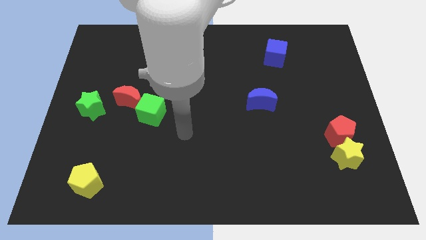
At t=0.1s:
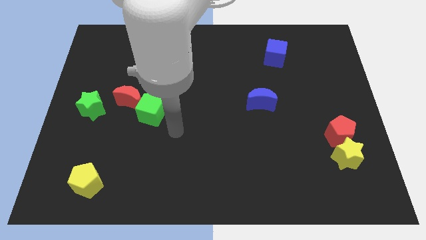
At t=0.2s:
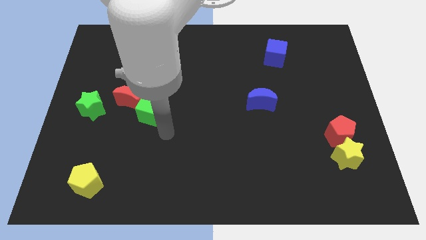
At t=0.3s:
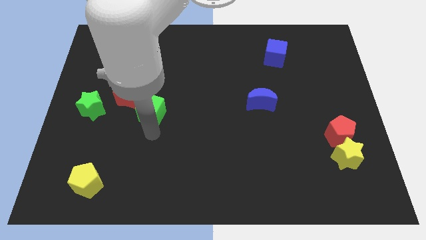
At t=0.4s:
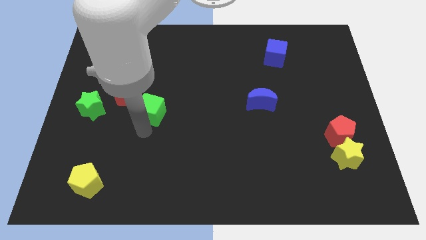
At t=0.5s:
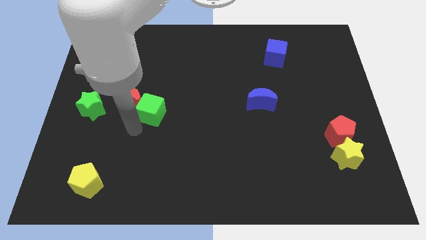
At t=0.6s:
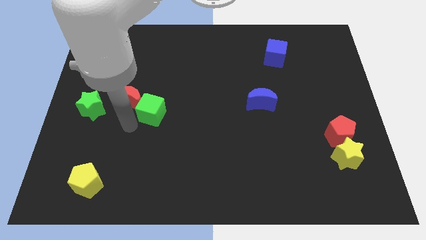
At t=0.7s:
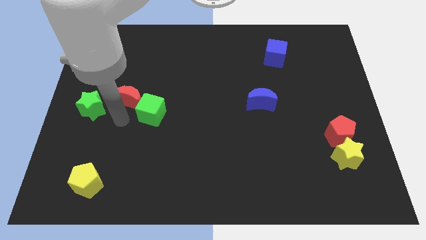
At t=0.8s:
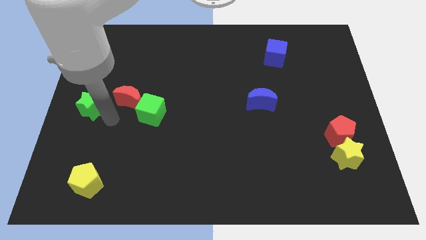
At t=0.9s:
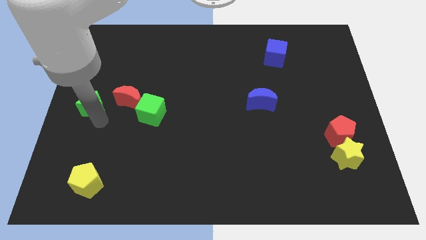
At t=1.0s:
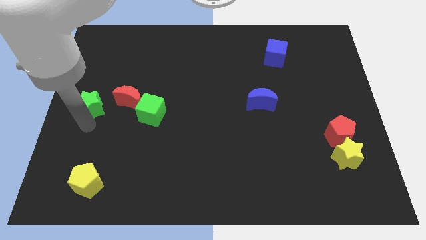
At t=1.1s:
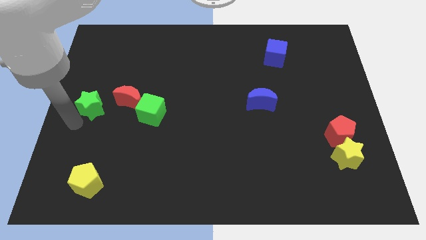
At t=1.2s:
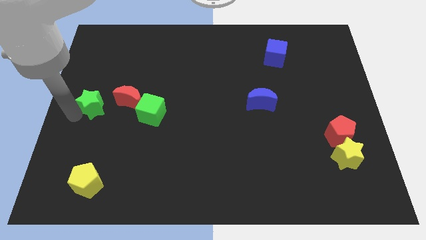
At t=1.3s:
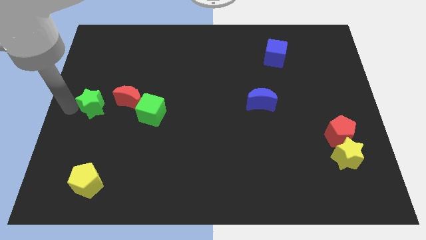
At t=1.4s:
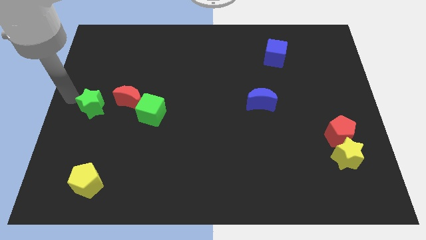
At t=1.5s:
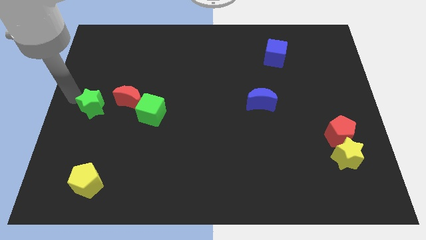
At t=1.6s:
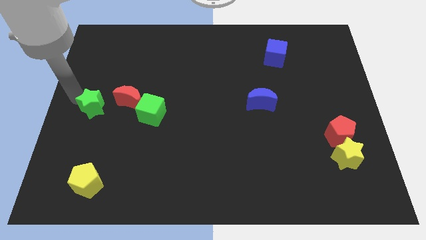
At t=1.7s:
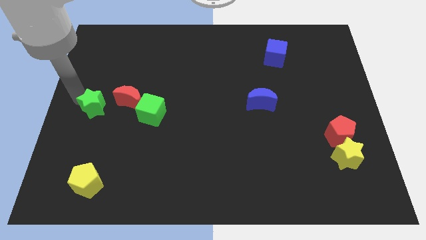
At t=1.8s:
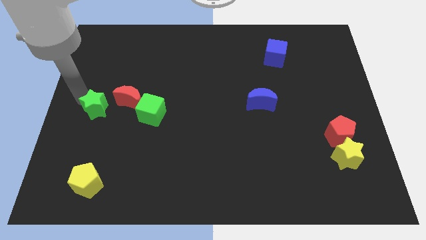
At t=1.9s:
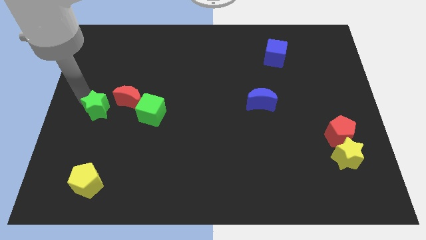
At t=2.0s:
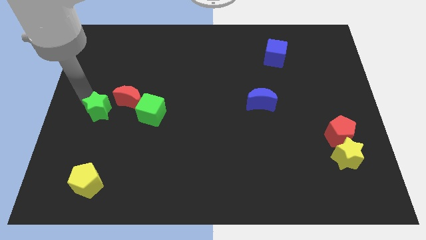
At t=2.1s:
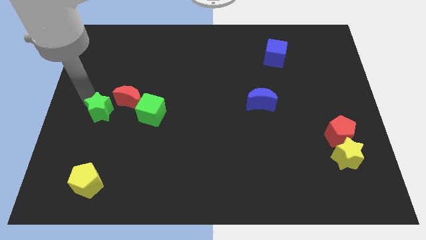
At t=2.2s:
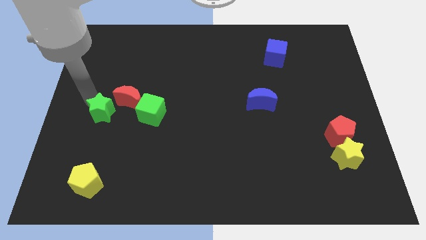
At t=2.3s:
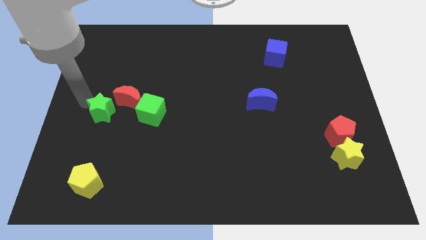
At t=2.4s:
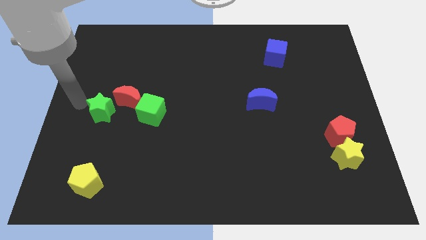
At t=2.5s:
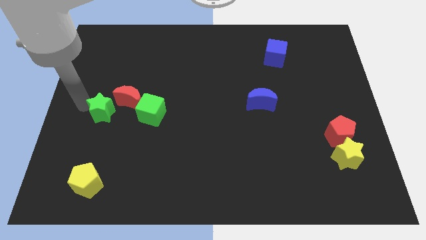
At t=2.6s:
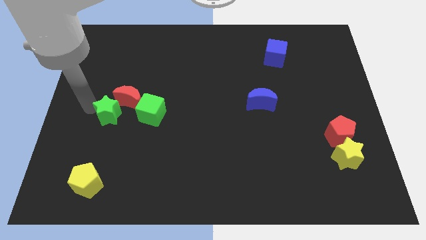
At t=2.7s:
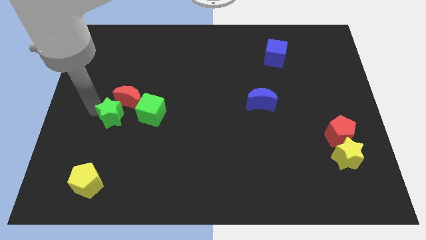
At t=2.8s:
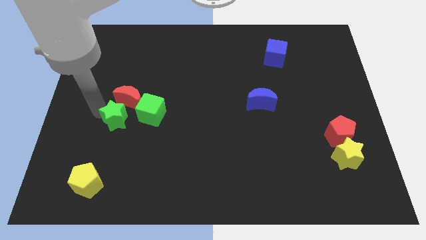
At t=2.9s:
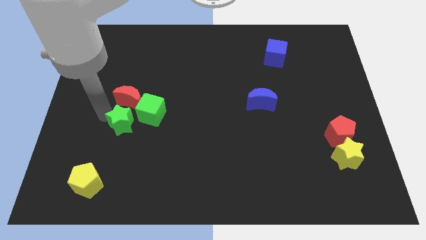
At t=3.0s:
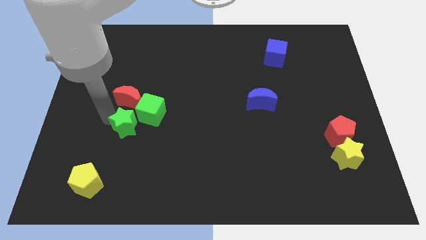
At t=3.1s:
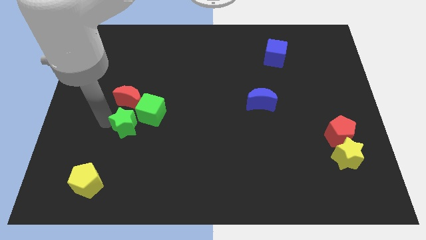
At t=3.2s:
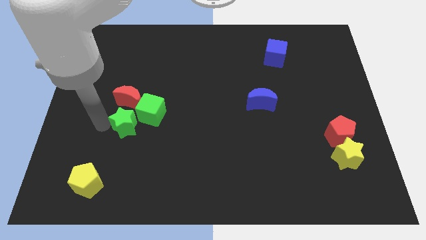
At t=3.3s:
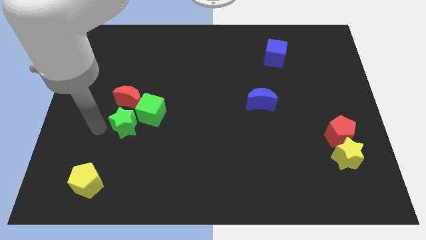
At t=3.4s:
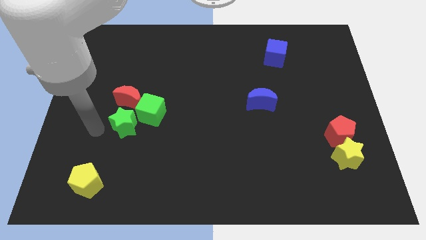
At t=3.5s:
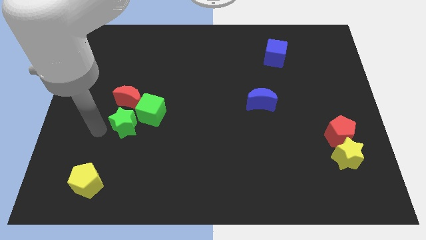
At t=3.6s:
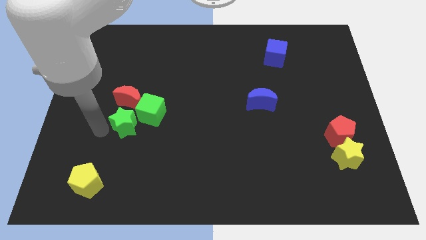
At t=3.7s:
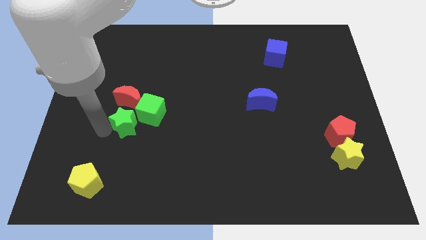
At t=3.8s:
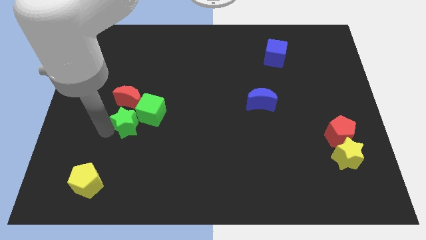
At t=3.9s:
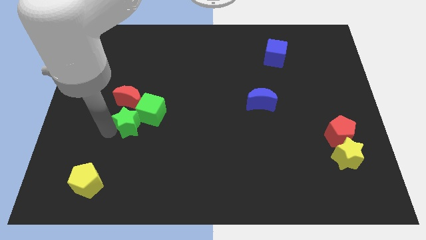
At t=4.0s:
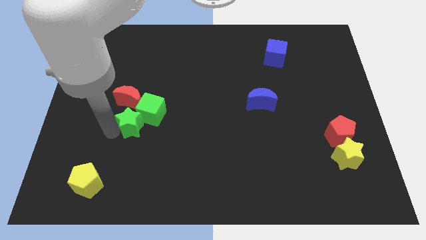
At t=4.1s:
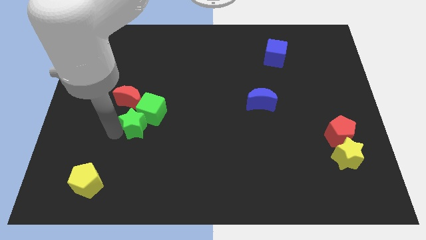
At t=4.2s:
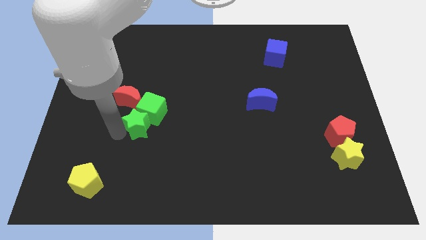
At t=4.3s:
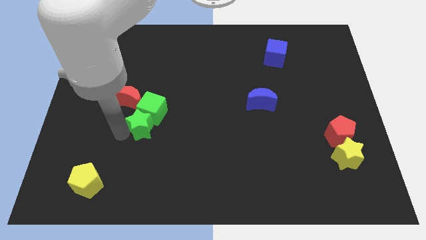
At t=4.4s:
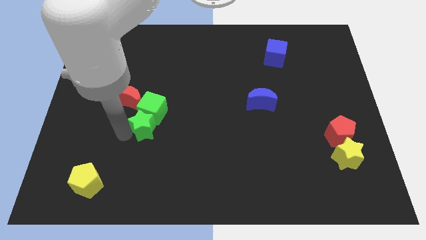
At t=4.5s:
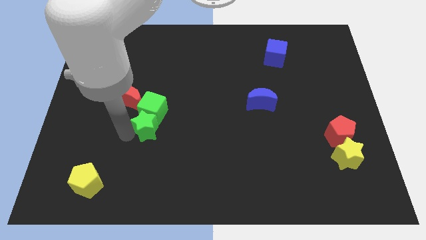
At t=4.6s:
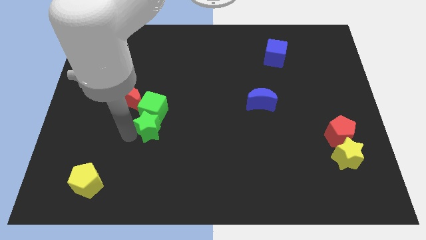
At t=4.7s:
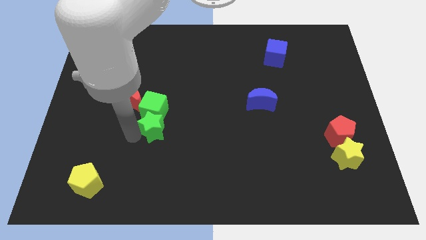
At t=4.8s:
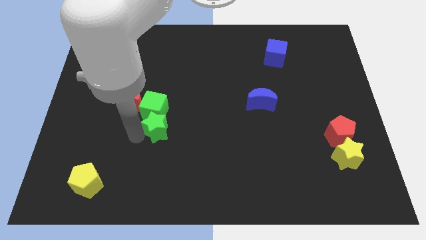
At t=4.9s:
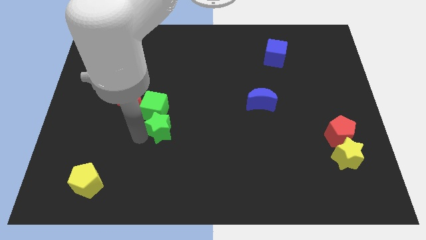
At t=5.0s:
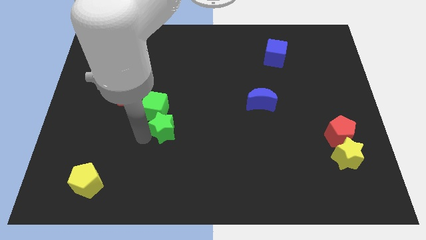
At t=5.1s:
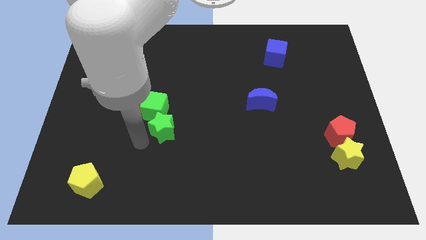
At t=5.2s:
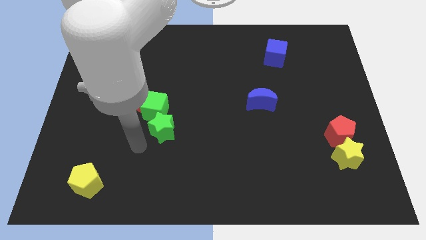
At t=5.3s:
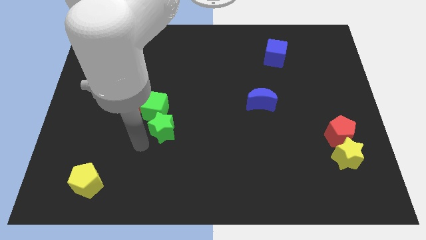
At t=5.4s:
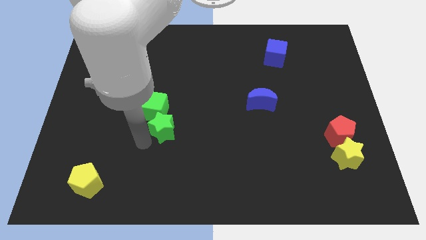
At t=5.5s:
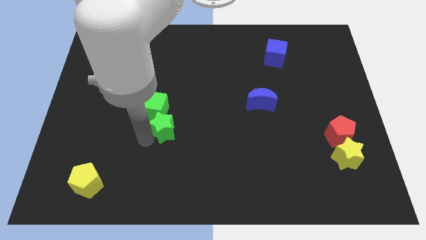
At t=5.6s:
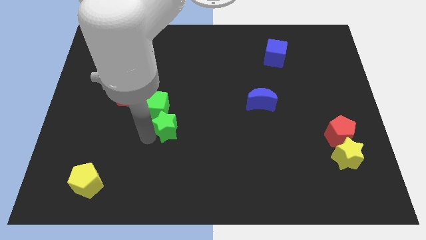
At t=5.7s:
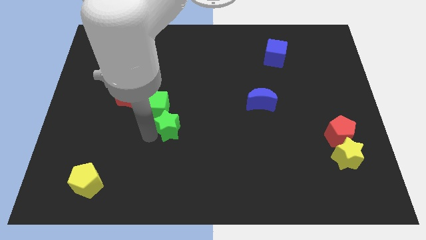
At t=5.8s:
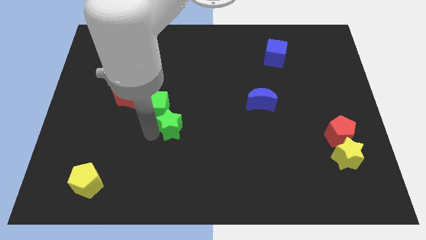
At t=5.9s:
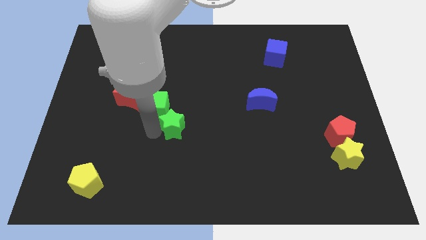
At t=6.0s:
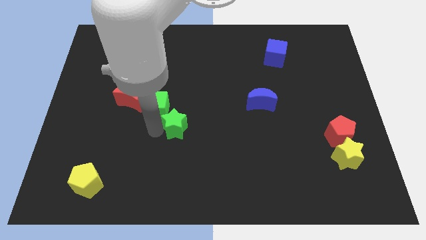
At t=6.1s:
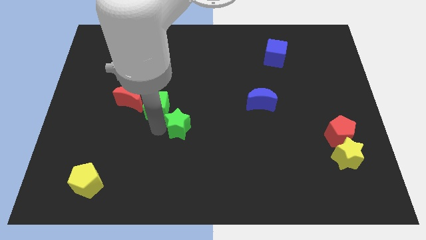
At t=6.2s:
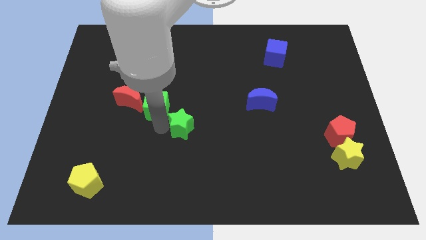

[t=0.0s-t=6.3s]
push the green star right

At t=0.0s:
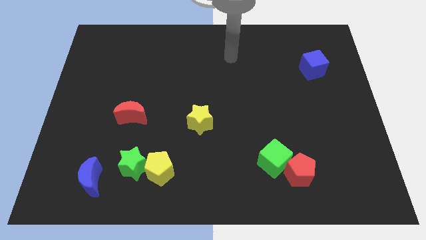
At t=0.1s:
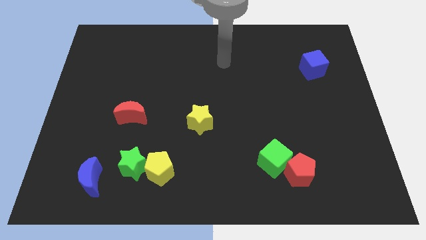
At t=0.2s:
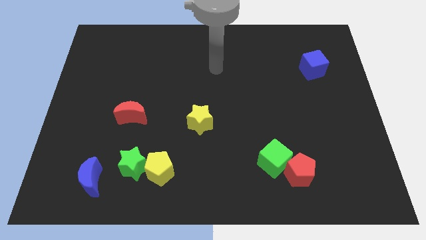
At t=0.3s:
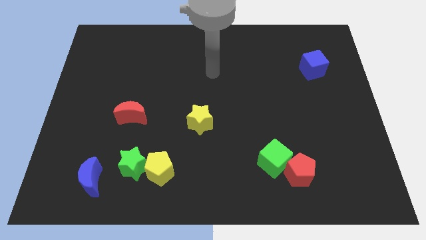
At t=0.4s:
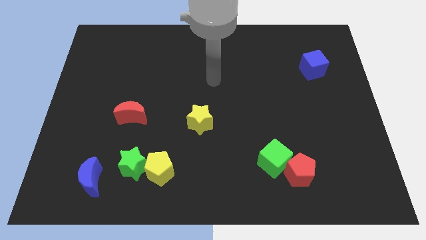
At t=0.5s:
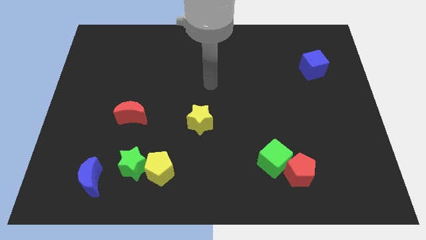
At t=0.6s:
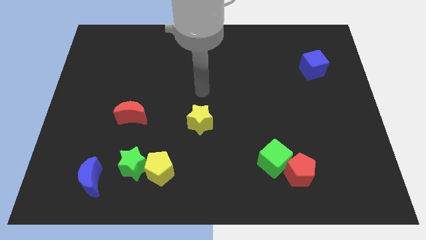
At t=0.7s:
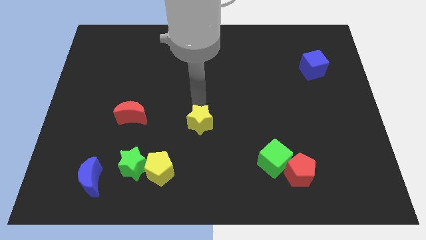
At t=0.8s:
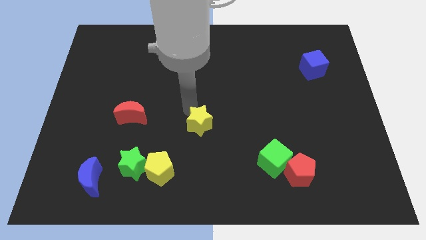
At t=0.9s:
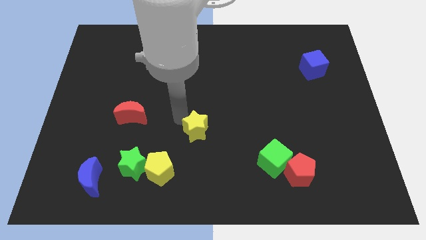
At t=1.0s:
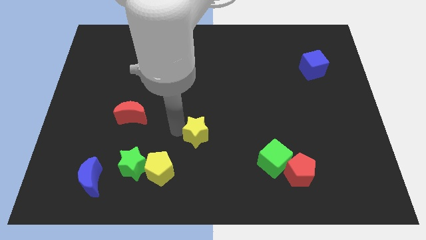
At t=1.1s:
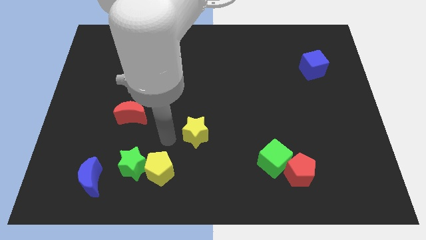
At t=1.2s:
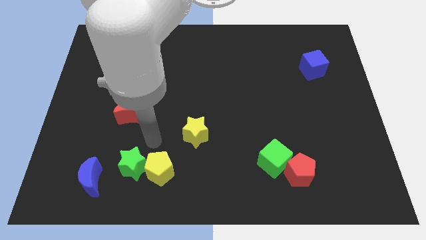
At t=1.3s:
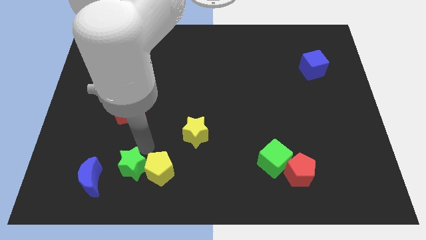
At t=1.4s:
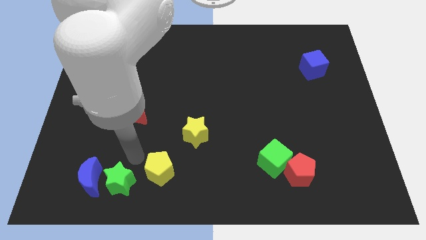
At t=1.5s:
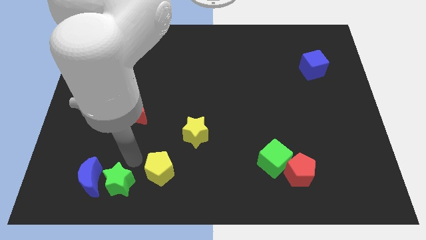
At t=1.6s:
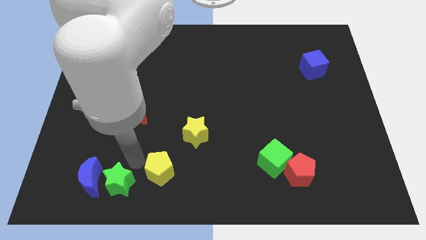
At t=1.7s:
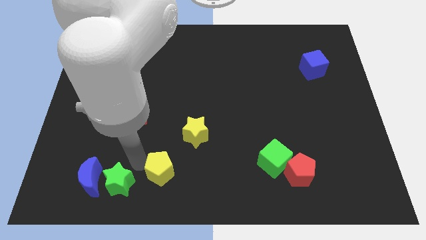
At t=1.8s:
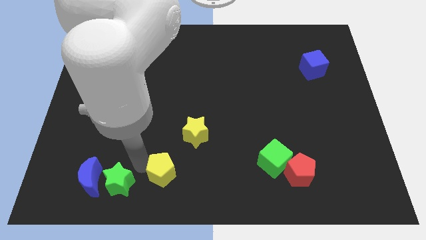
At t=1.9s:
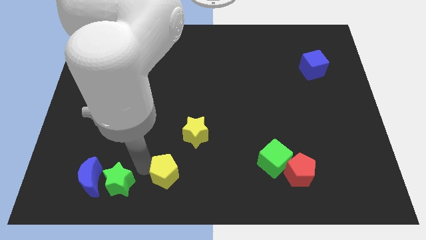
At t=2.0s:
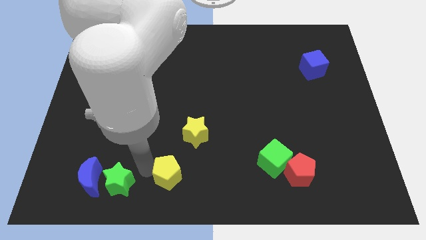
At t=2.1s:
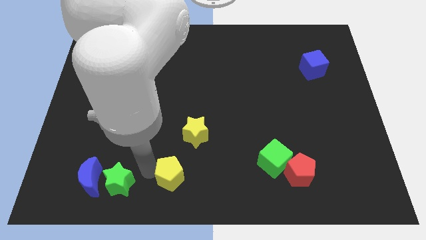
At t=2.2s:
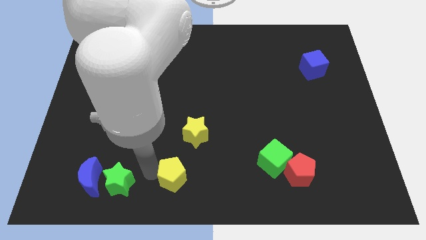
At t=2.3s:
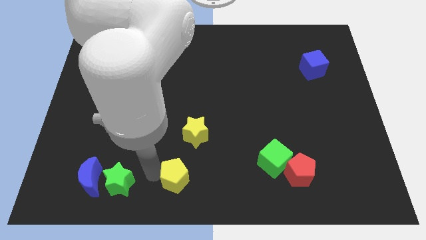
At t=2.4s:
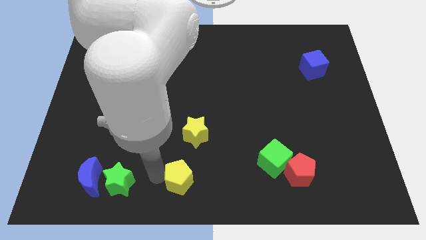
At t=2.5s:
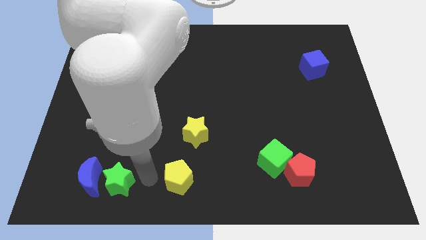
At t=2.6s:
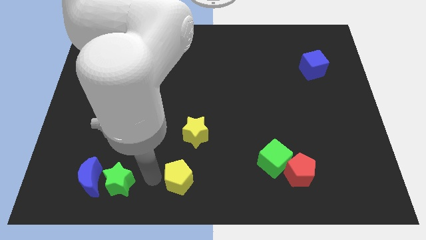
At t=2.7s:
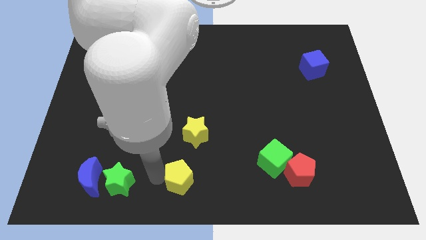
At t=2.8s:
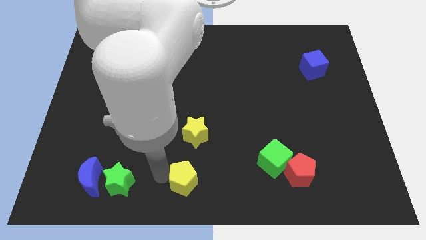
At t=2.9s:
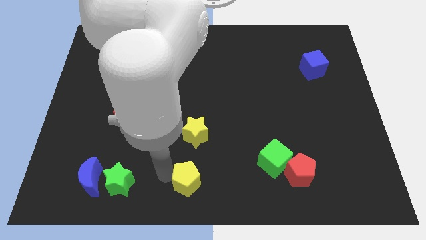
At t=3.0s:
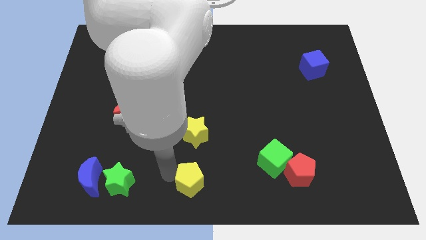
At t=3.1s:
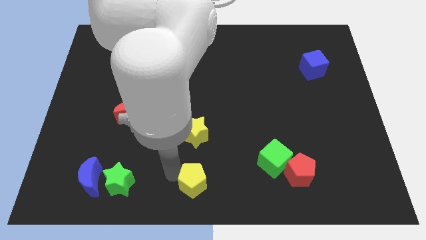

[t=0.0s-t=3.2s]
slightly slide the yellow pentagon right
